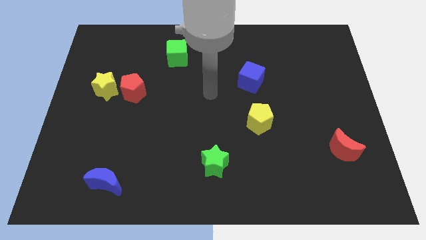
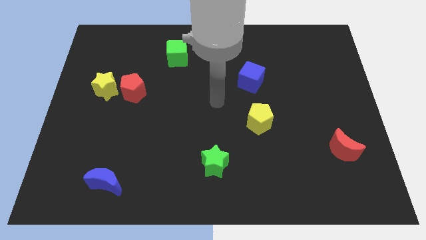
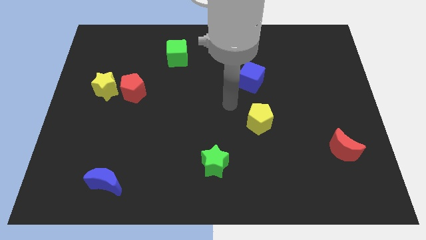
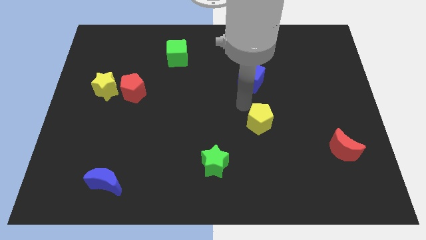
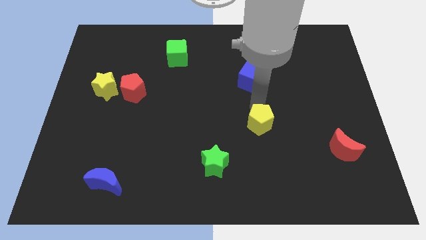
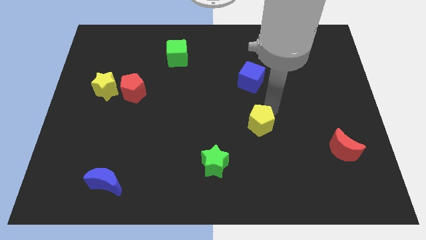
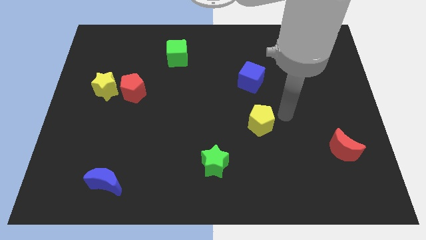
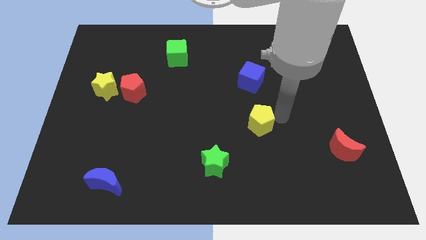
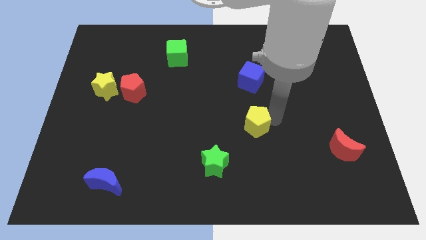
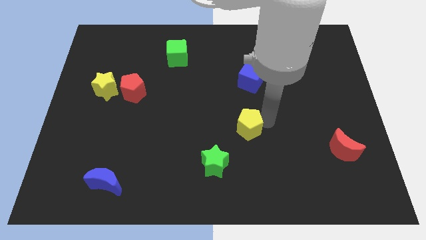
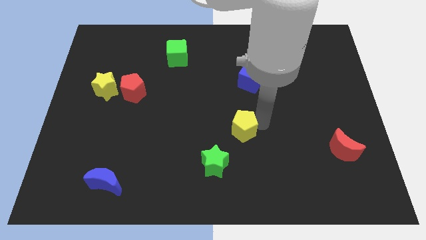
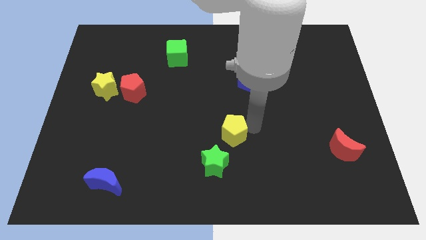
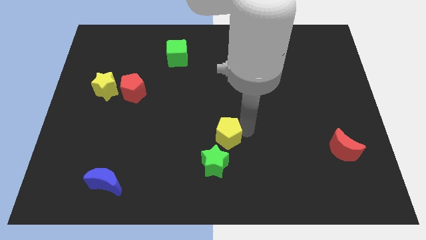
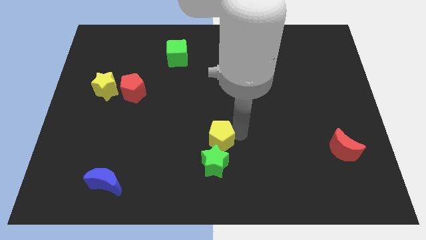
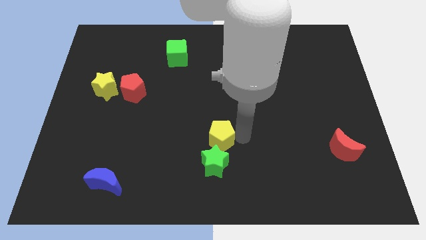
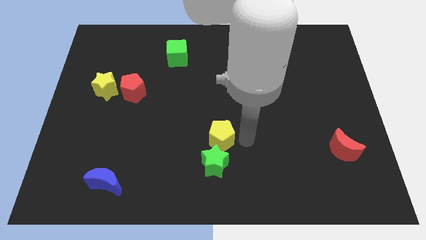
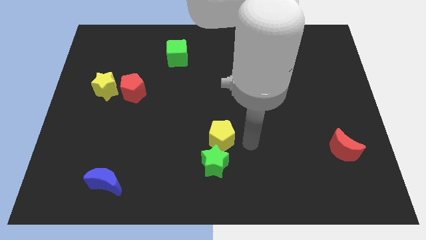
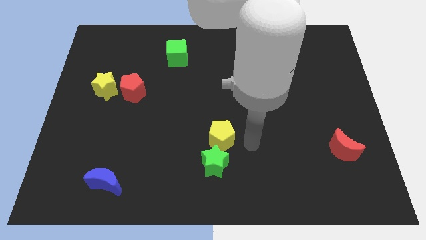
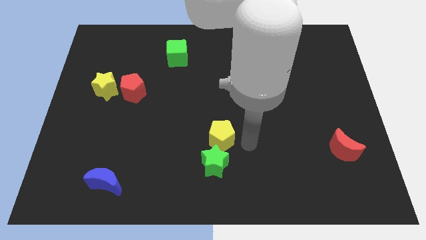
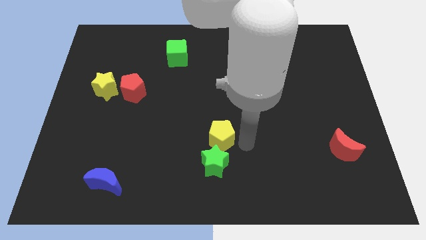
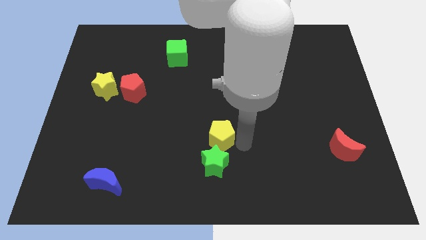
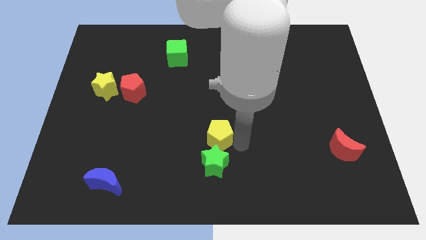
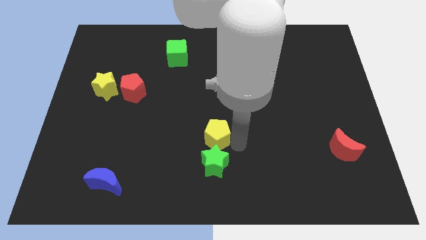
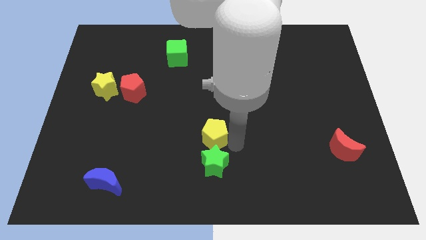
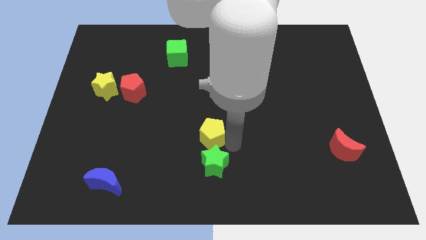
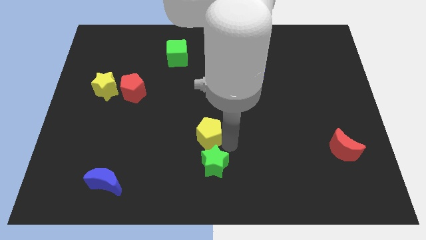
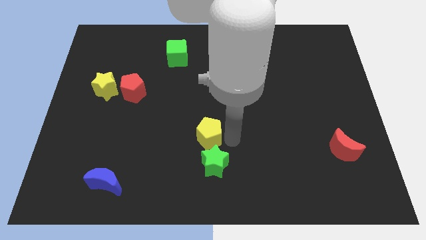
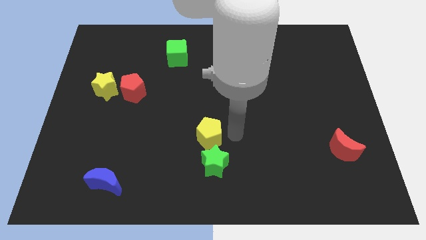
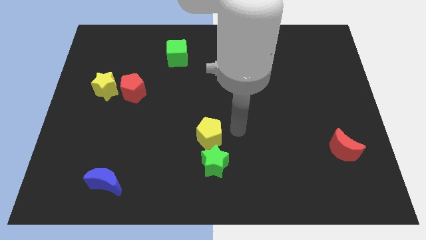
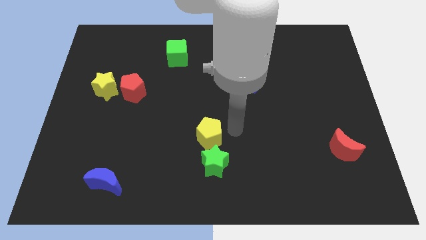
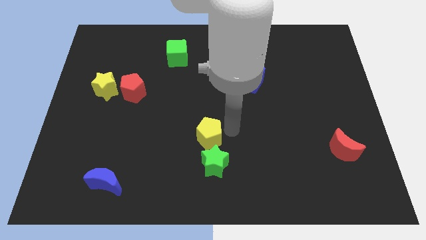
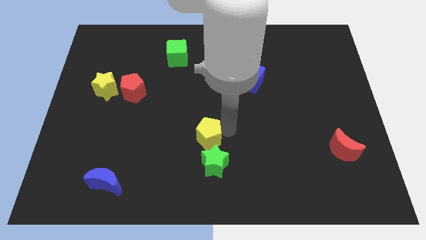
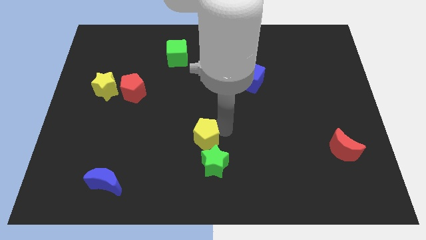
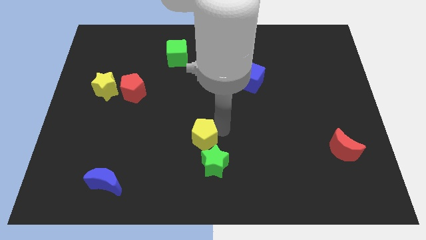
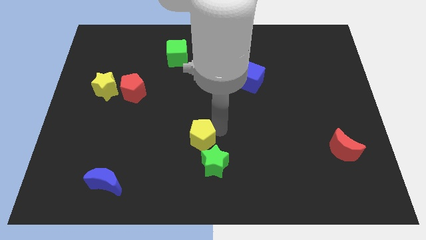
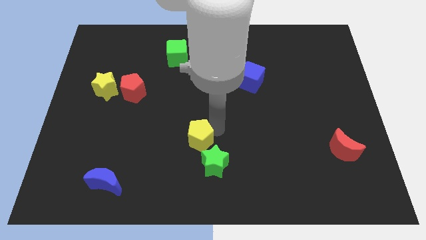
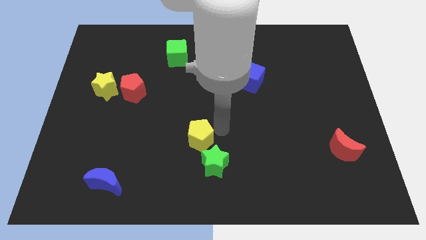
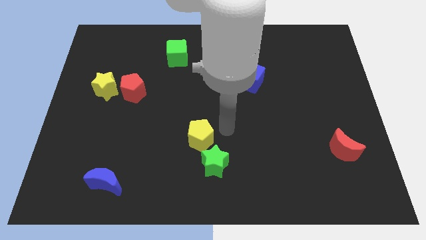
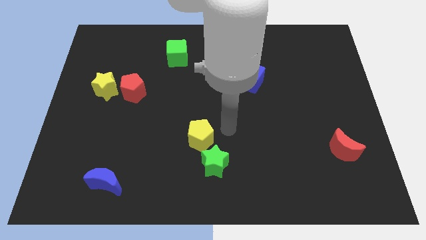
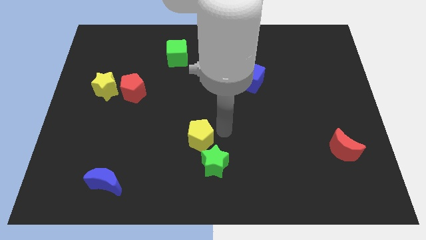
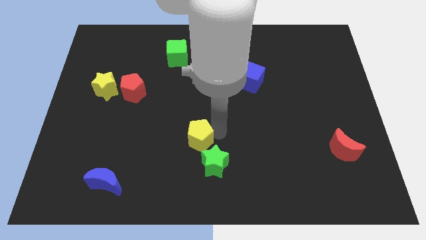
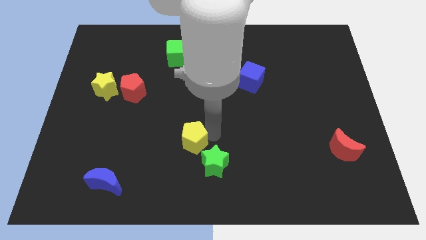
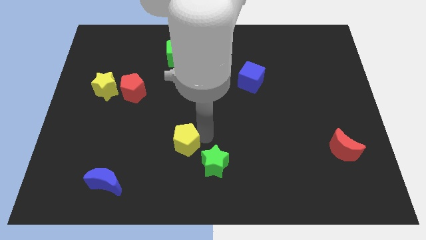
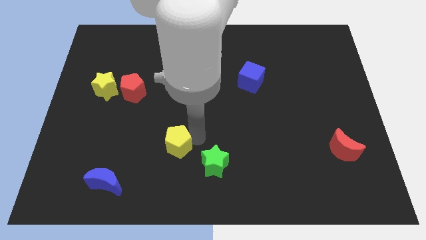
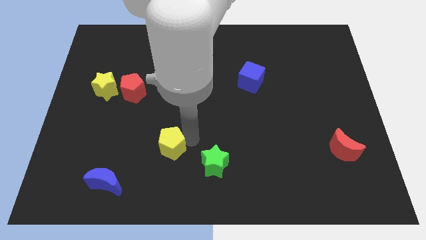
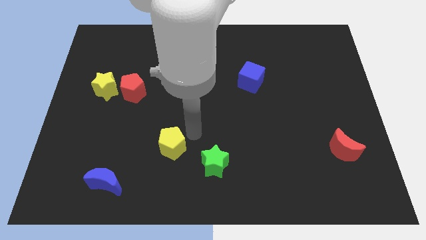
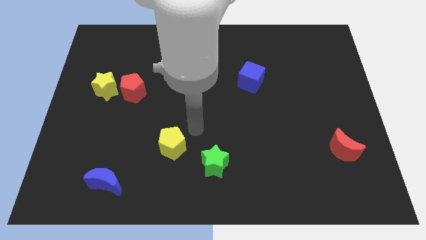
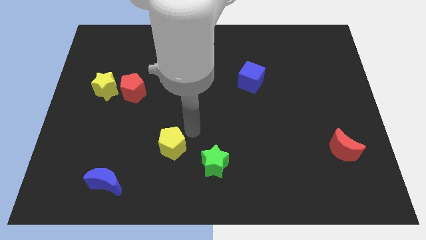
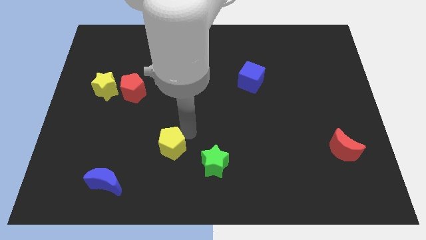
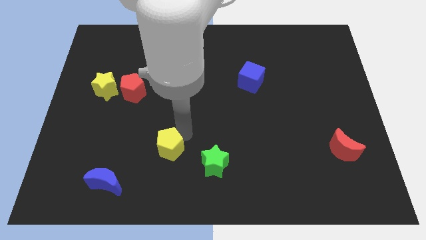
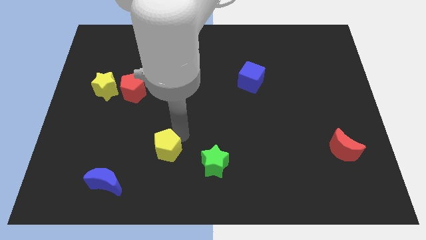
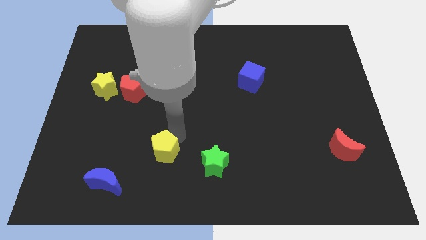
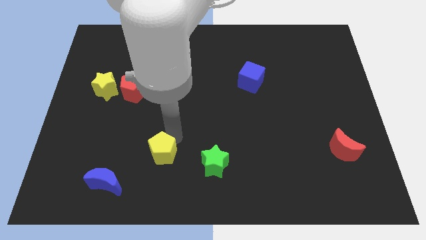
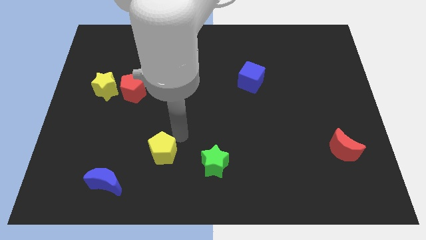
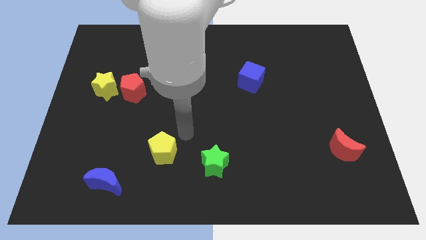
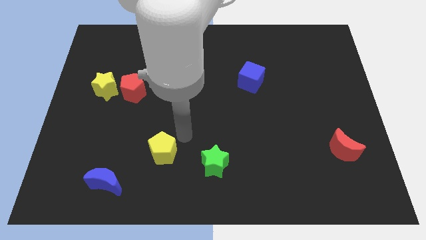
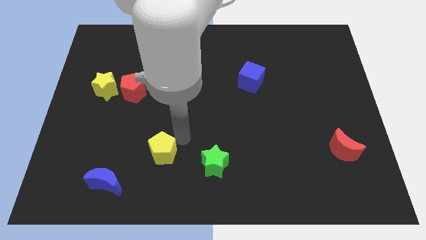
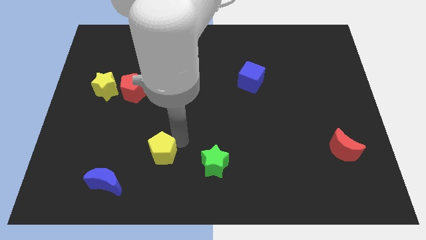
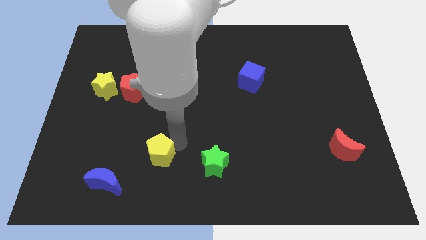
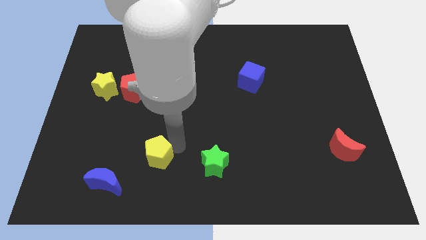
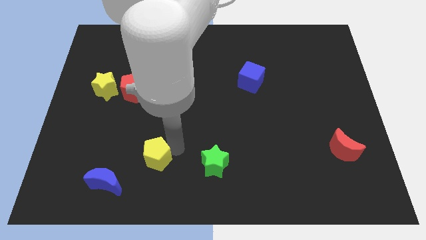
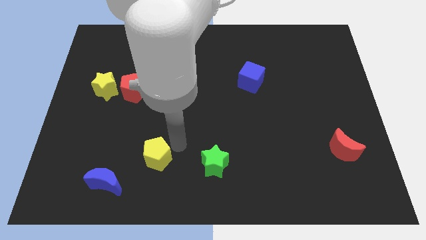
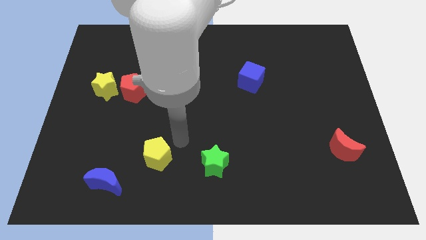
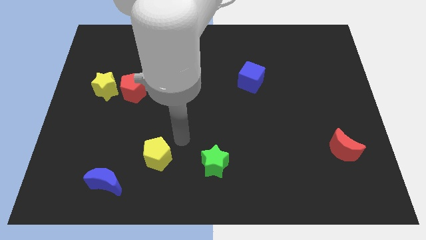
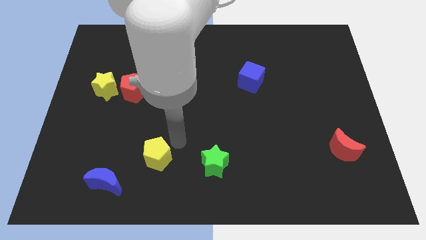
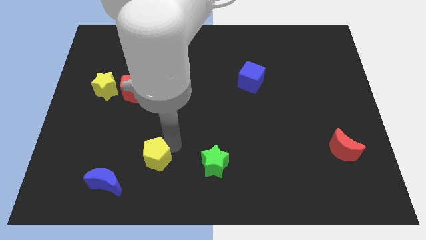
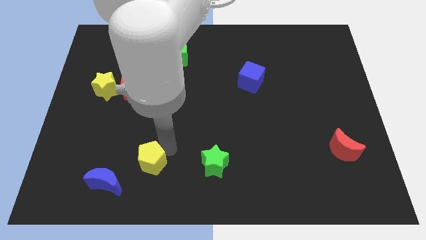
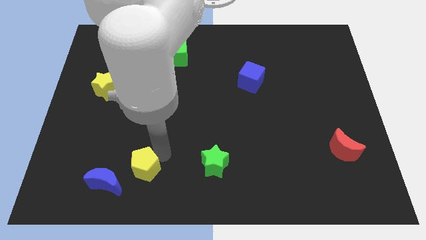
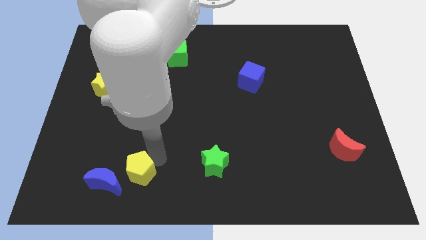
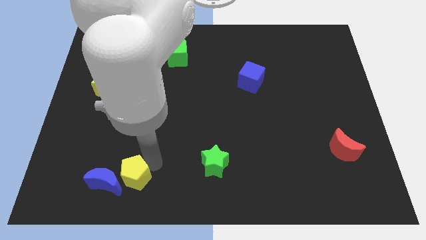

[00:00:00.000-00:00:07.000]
put the yellow pentagon towards the blue moon
